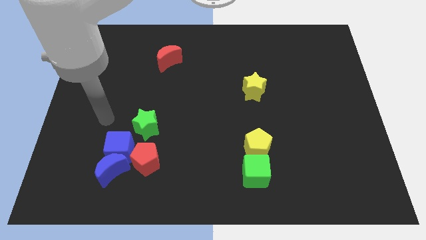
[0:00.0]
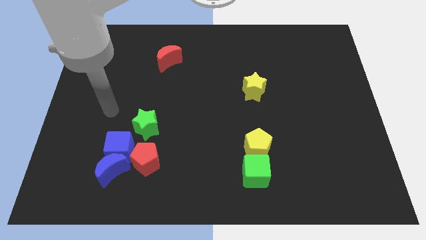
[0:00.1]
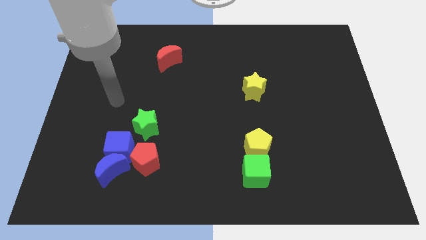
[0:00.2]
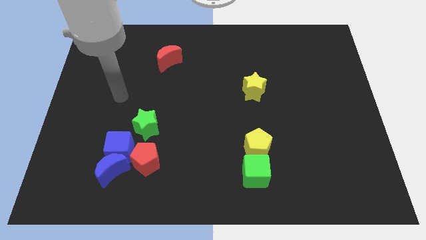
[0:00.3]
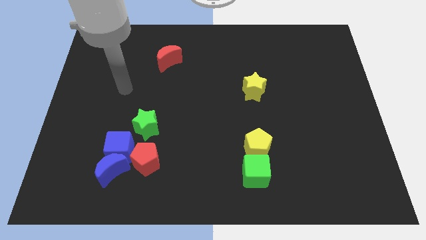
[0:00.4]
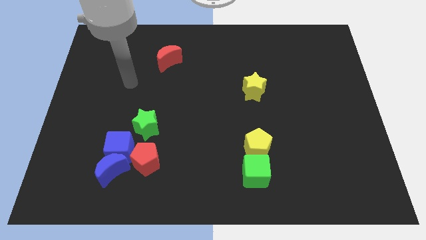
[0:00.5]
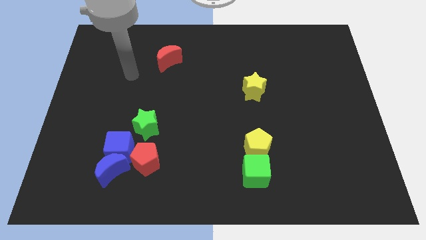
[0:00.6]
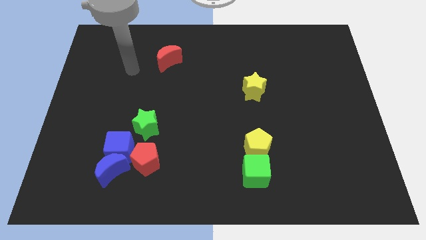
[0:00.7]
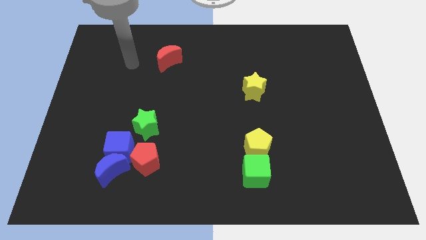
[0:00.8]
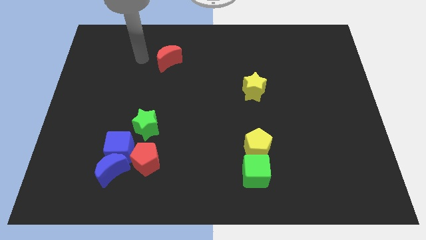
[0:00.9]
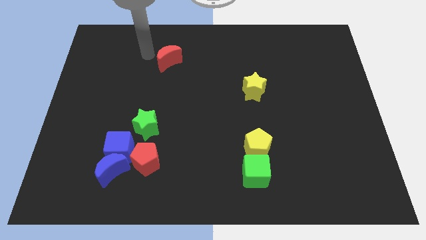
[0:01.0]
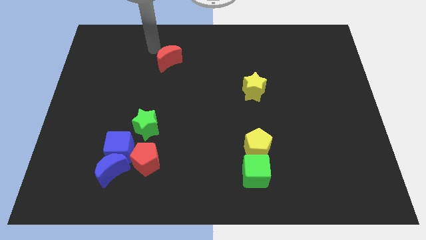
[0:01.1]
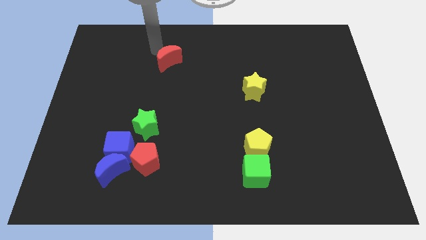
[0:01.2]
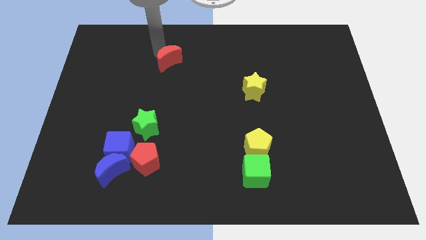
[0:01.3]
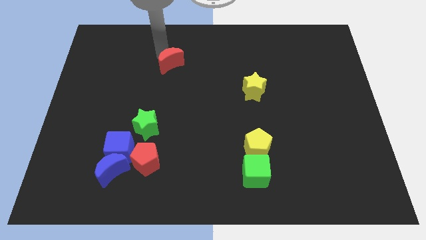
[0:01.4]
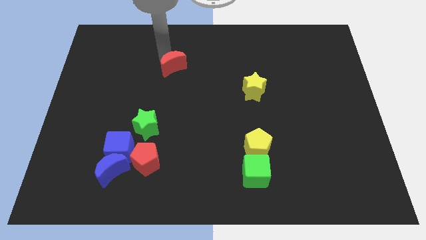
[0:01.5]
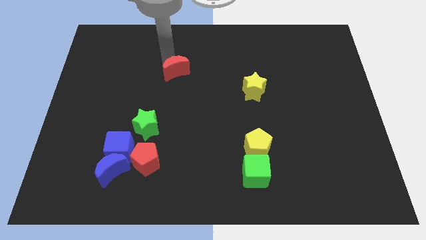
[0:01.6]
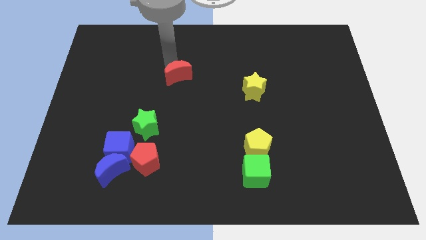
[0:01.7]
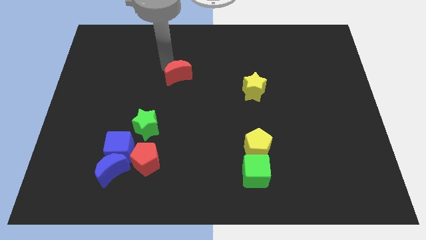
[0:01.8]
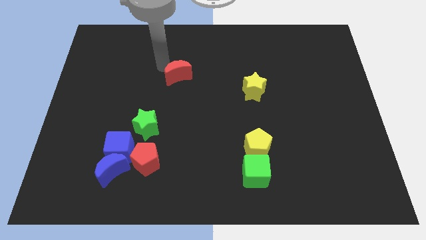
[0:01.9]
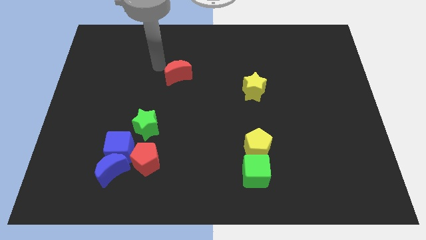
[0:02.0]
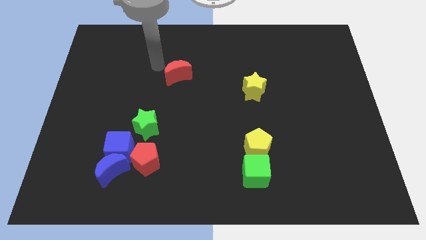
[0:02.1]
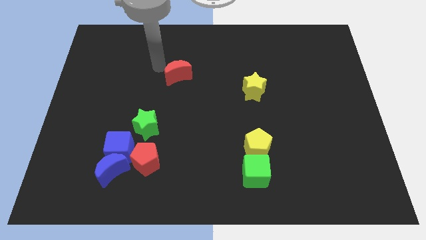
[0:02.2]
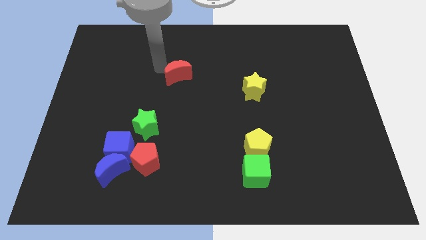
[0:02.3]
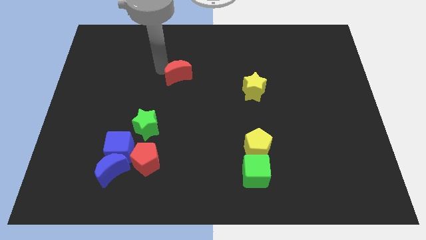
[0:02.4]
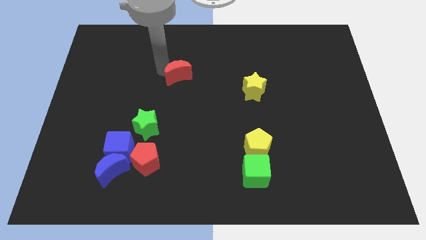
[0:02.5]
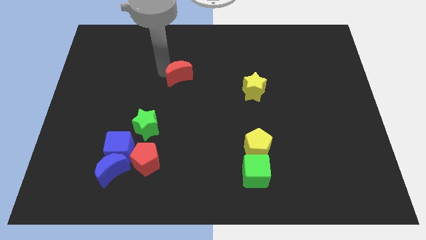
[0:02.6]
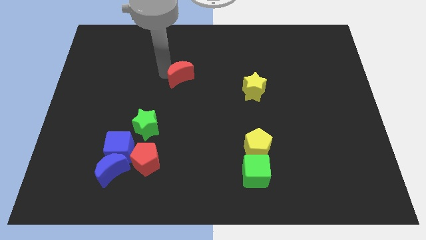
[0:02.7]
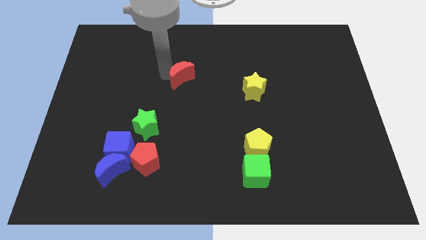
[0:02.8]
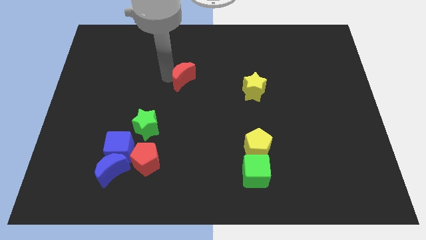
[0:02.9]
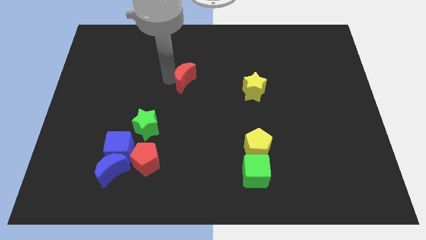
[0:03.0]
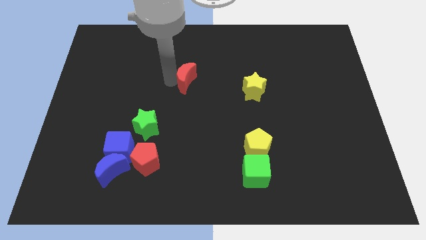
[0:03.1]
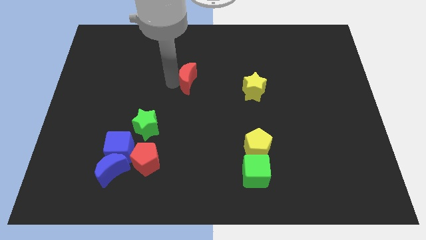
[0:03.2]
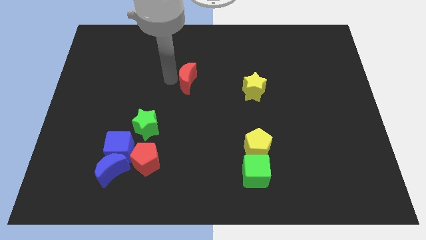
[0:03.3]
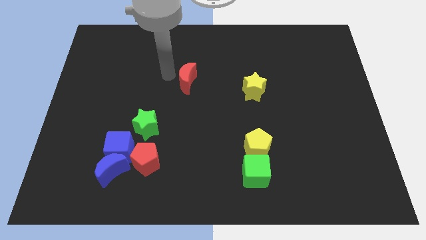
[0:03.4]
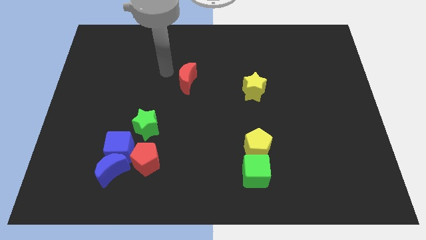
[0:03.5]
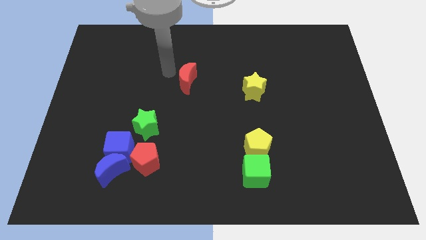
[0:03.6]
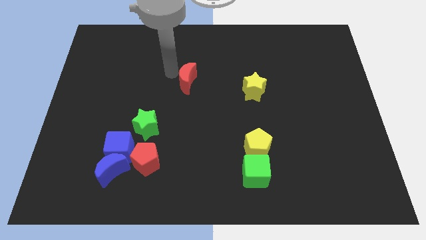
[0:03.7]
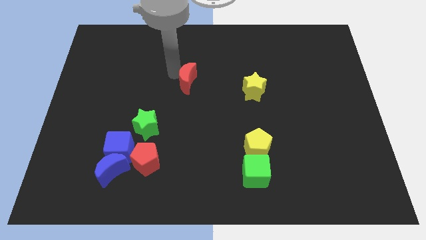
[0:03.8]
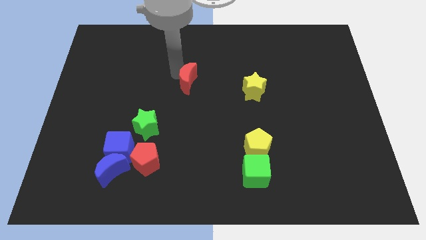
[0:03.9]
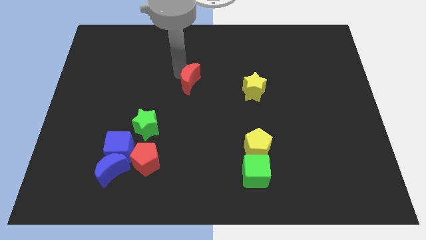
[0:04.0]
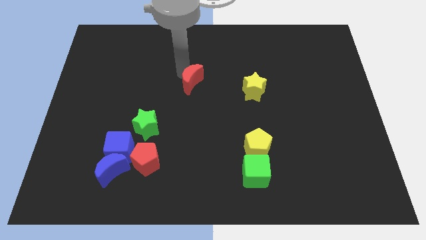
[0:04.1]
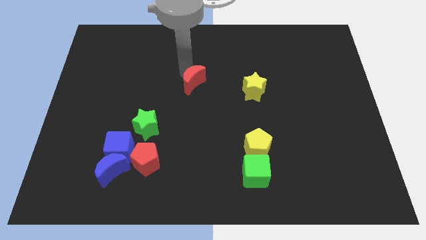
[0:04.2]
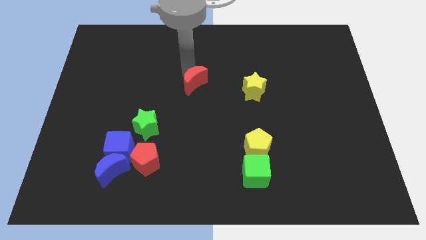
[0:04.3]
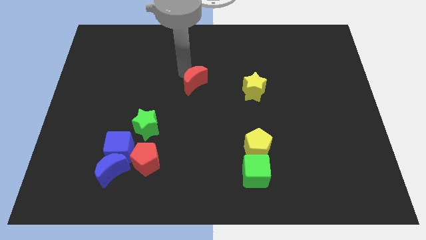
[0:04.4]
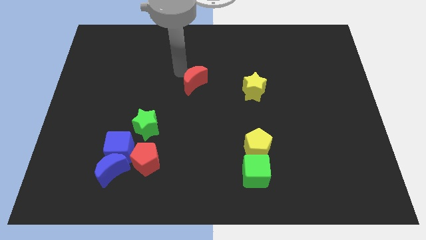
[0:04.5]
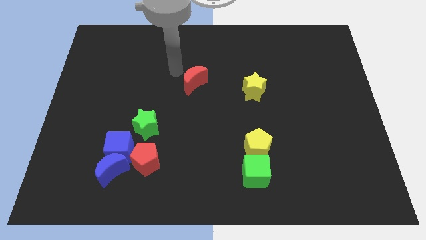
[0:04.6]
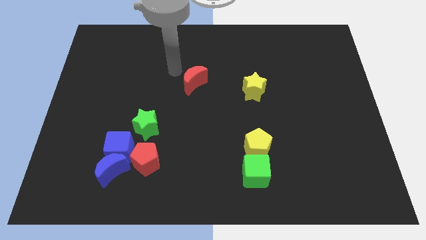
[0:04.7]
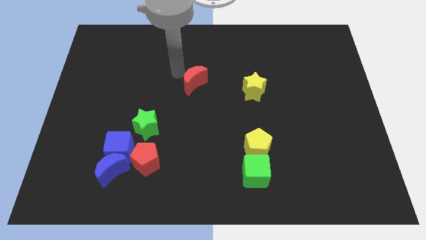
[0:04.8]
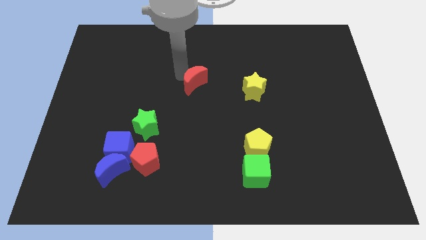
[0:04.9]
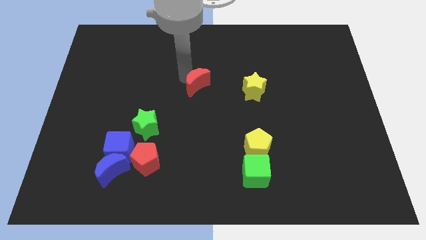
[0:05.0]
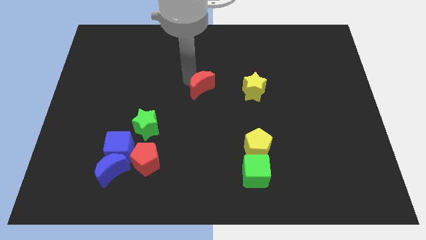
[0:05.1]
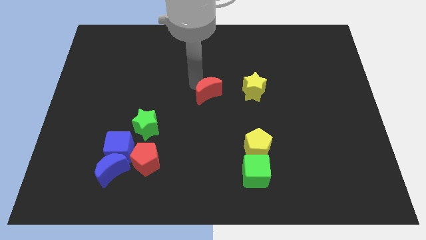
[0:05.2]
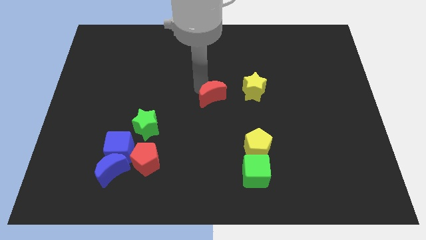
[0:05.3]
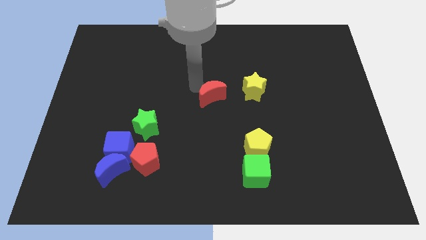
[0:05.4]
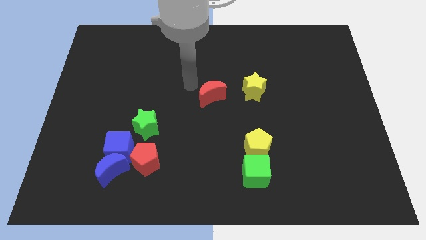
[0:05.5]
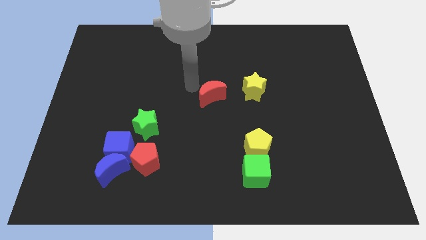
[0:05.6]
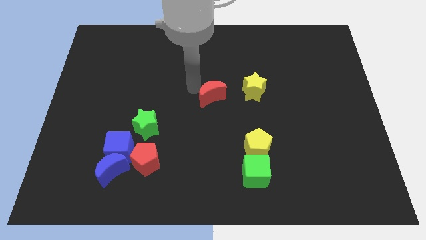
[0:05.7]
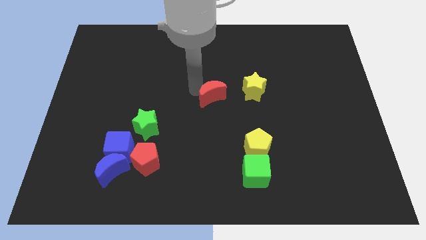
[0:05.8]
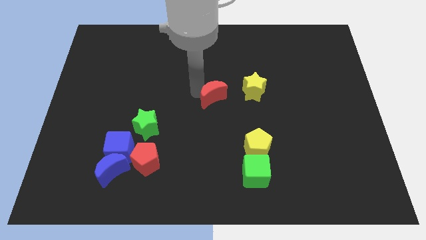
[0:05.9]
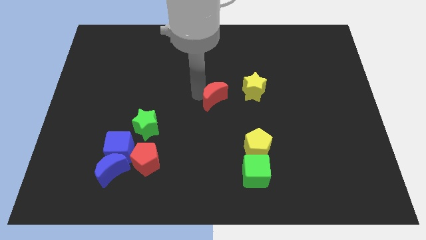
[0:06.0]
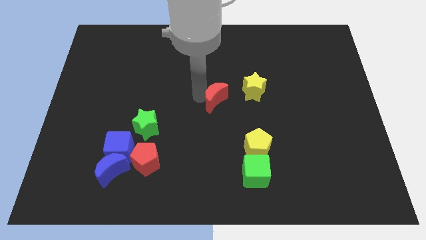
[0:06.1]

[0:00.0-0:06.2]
slide the red moon to the bottom left of the yellow star

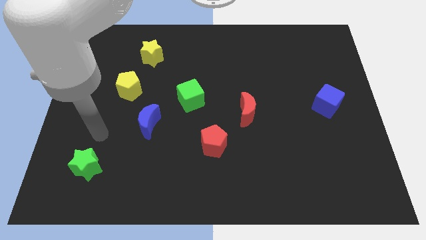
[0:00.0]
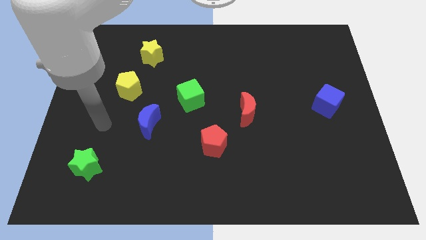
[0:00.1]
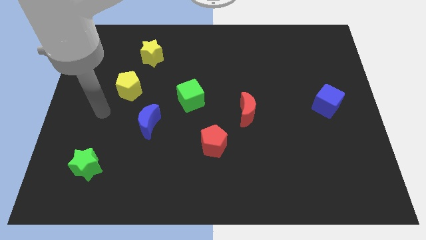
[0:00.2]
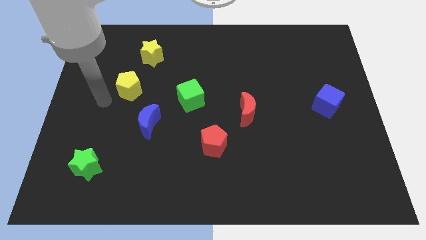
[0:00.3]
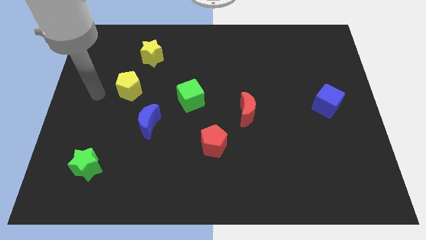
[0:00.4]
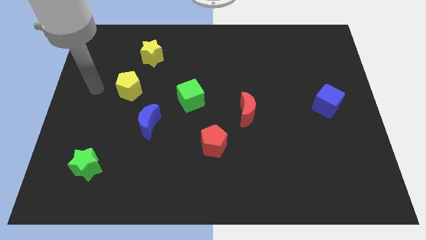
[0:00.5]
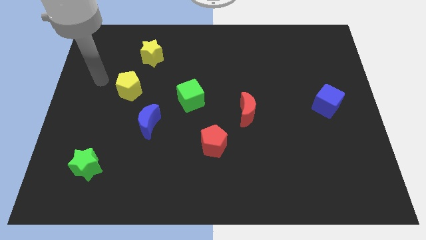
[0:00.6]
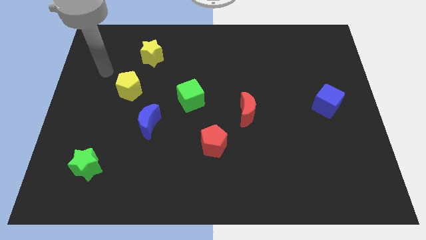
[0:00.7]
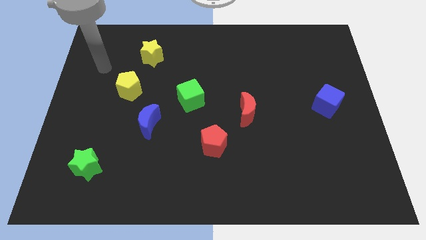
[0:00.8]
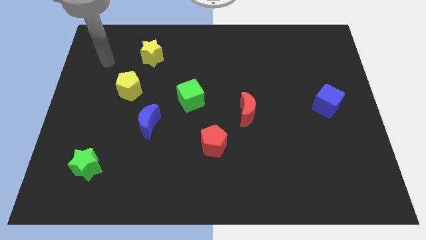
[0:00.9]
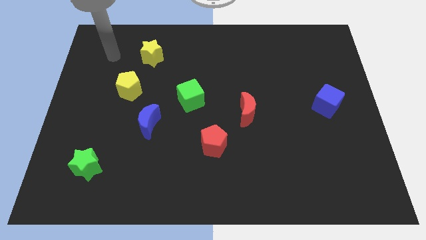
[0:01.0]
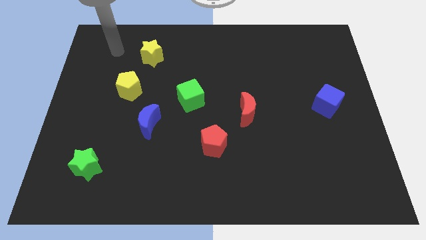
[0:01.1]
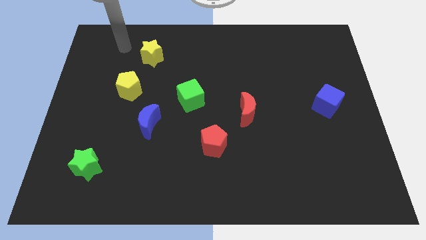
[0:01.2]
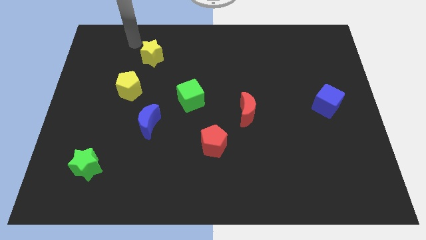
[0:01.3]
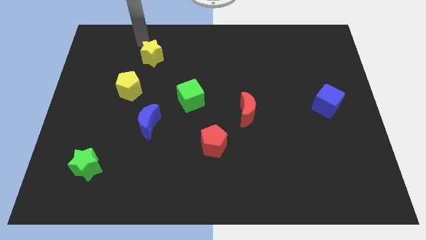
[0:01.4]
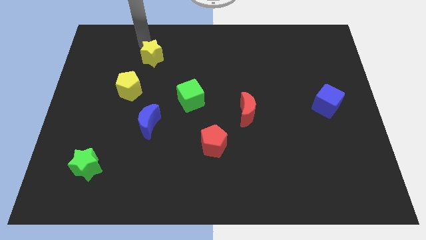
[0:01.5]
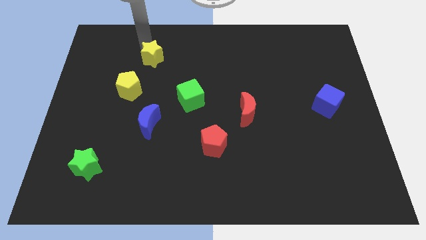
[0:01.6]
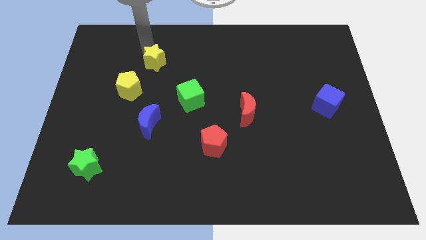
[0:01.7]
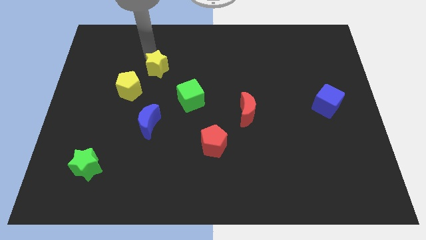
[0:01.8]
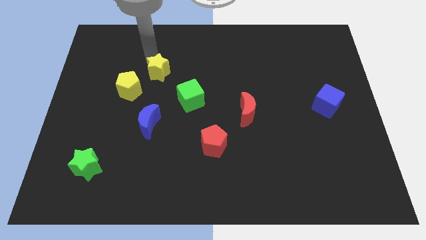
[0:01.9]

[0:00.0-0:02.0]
move the yellow star to the top left side of the green cube
